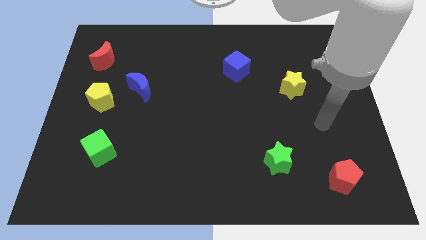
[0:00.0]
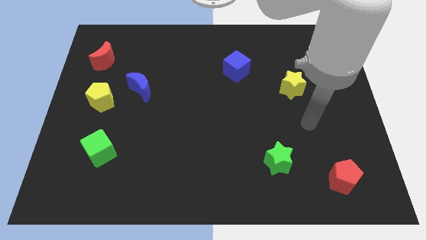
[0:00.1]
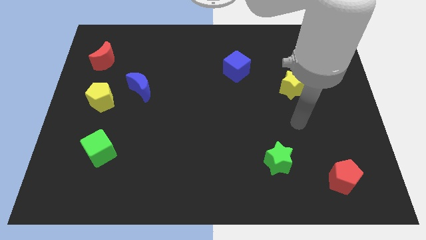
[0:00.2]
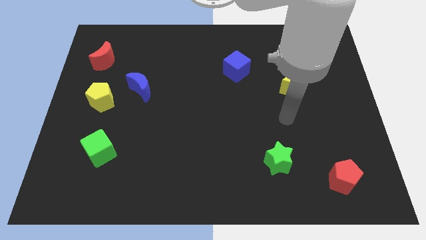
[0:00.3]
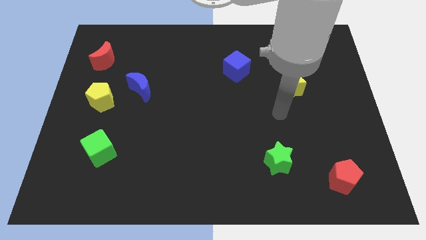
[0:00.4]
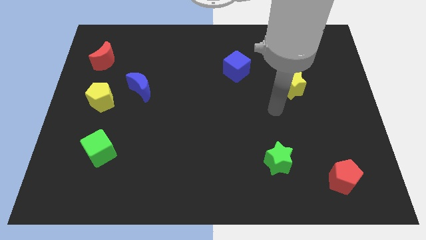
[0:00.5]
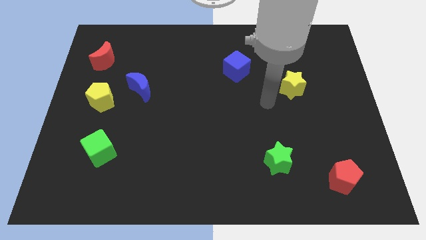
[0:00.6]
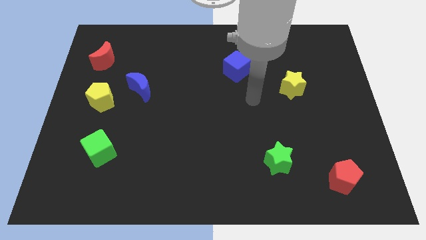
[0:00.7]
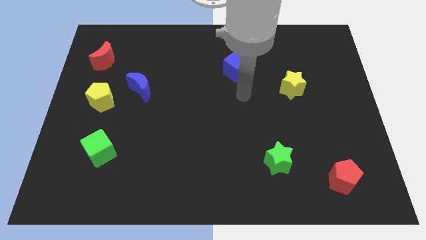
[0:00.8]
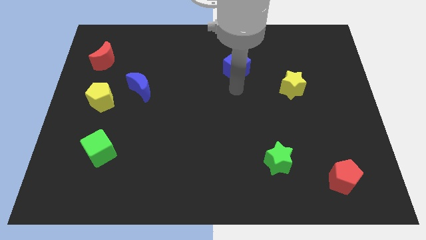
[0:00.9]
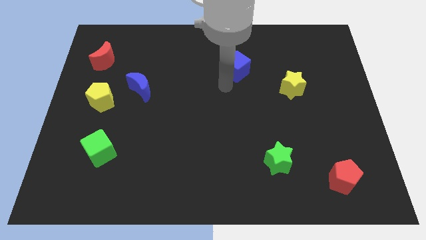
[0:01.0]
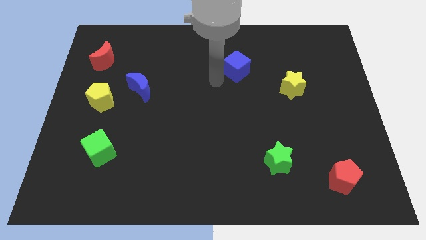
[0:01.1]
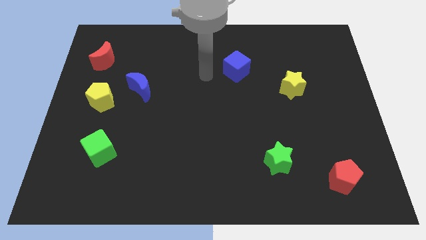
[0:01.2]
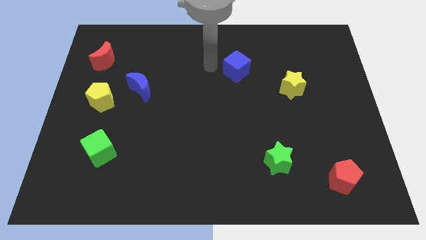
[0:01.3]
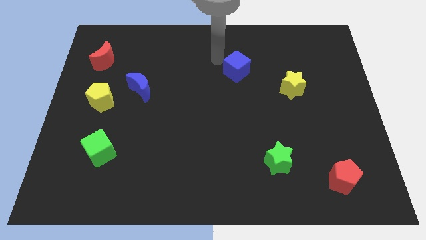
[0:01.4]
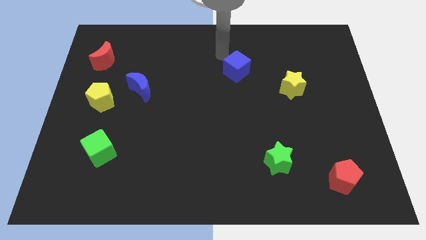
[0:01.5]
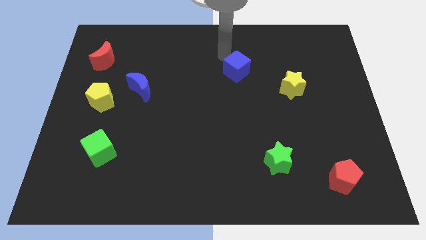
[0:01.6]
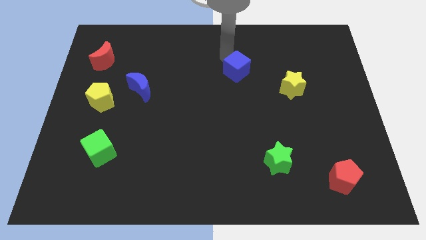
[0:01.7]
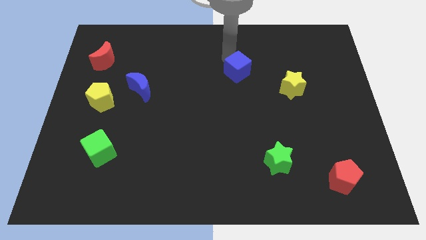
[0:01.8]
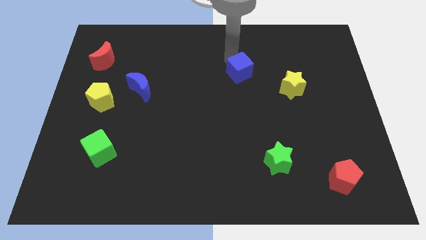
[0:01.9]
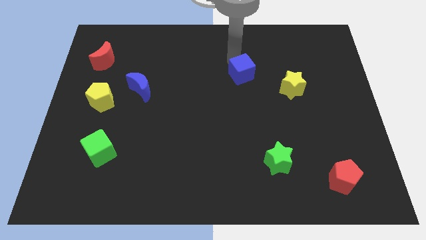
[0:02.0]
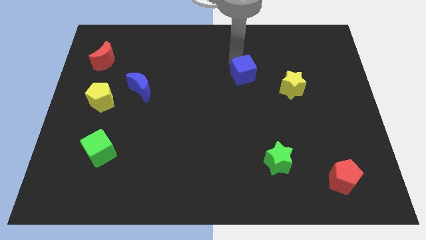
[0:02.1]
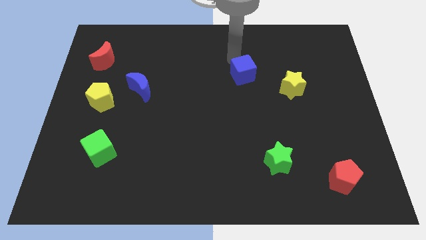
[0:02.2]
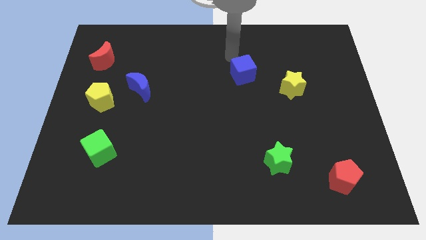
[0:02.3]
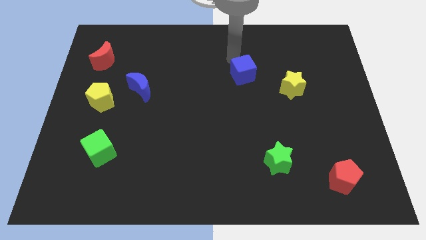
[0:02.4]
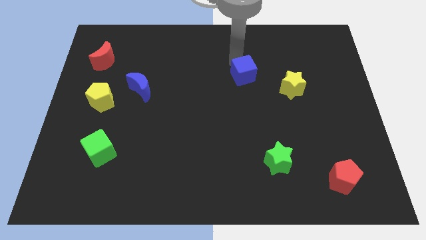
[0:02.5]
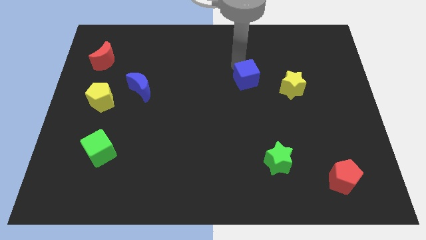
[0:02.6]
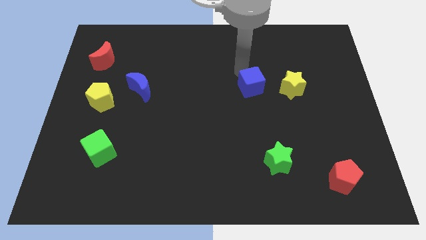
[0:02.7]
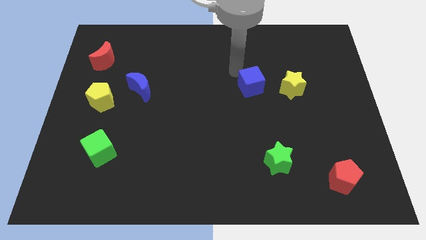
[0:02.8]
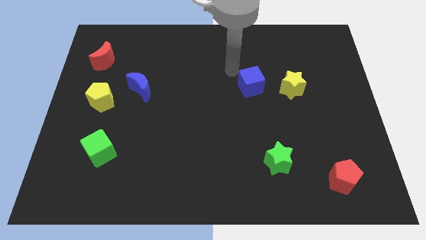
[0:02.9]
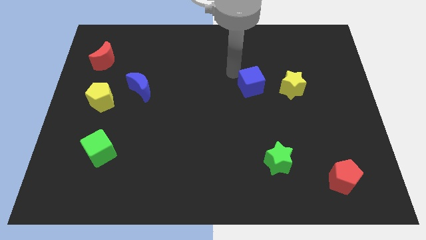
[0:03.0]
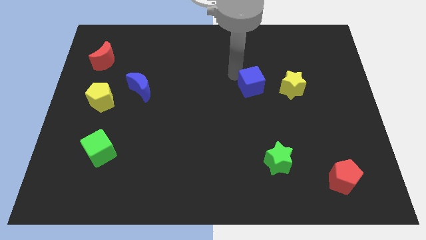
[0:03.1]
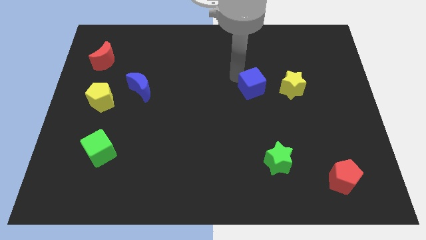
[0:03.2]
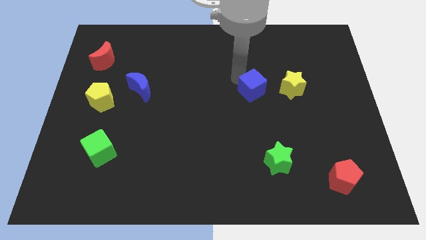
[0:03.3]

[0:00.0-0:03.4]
move the blue cube diagonally down and right slightly

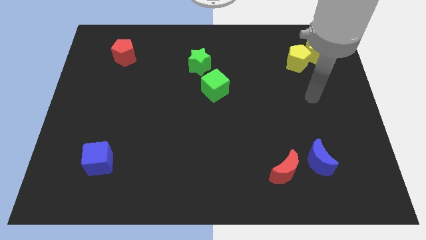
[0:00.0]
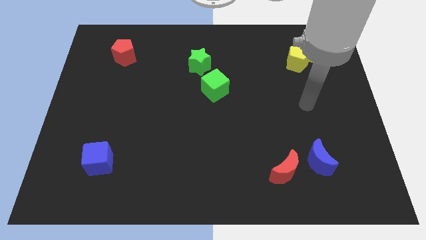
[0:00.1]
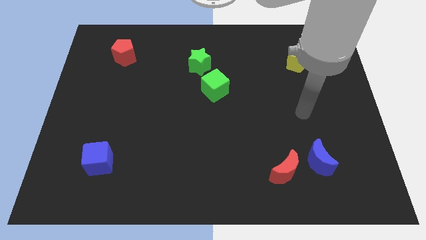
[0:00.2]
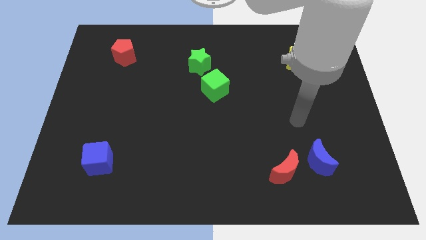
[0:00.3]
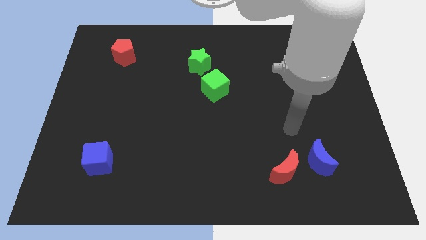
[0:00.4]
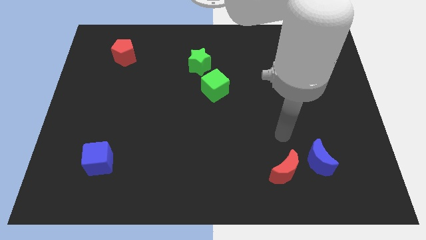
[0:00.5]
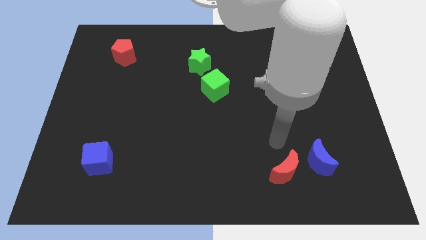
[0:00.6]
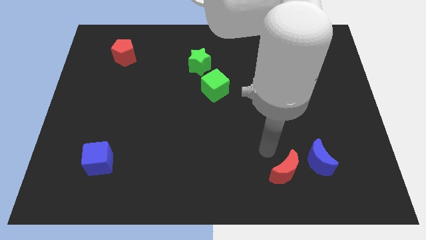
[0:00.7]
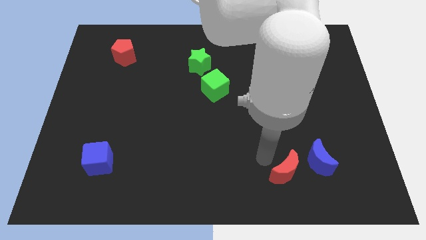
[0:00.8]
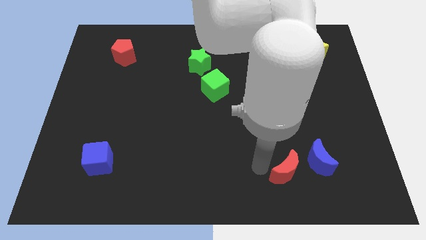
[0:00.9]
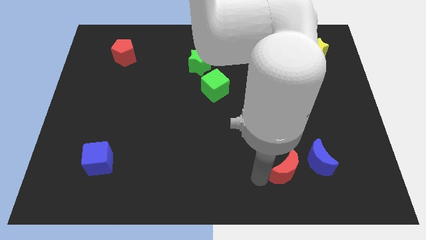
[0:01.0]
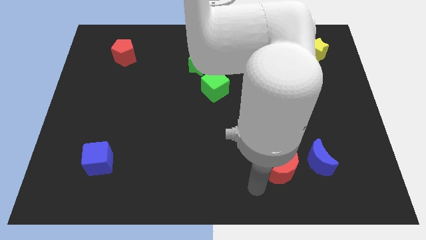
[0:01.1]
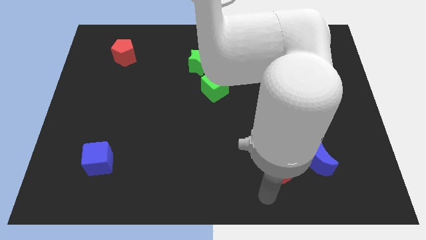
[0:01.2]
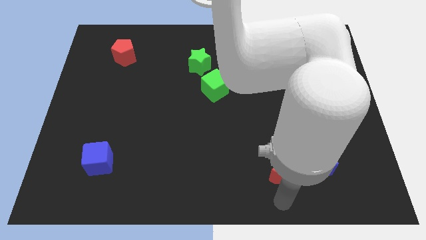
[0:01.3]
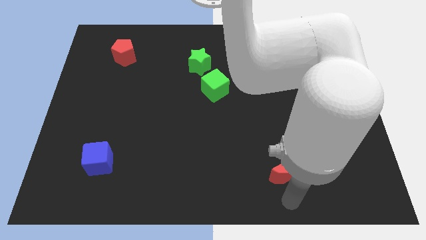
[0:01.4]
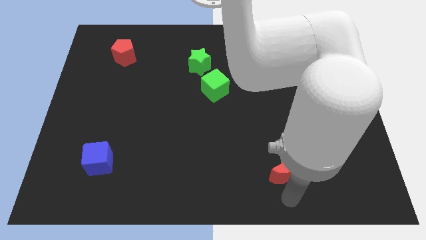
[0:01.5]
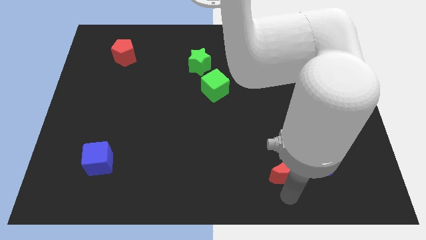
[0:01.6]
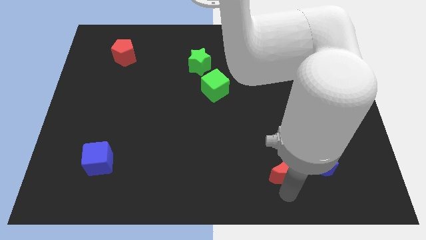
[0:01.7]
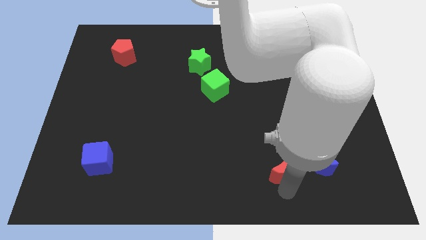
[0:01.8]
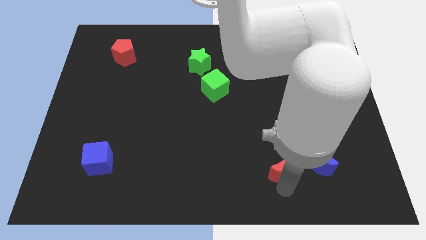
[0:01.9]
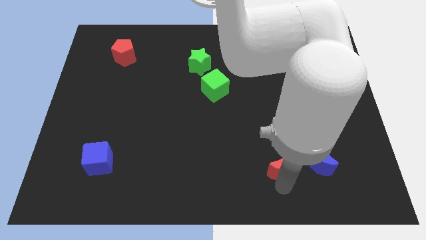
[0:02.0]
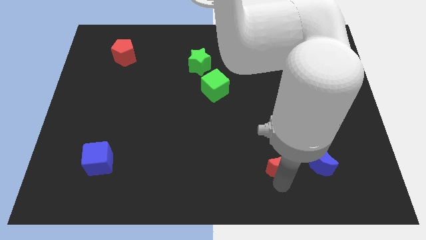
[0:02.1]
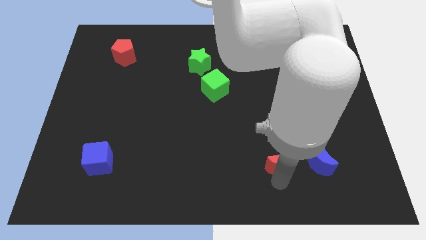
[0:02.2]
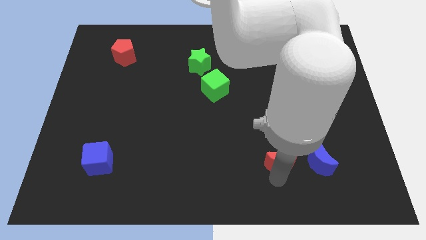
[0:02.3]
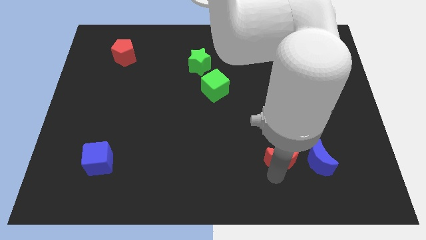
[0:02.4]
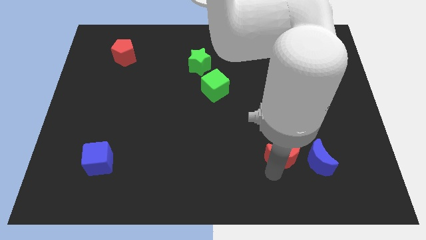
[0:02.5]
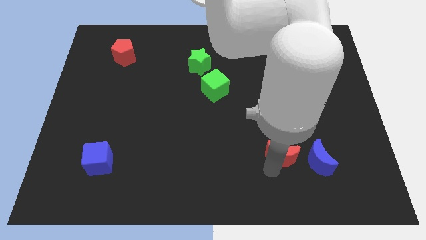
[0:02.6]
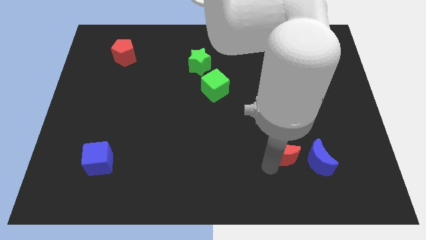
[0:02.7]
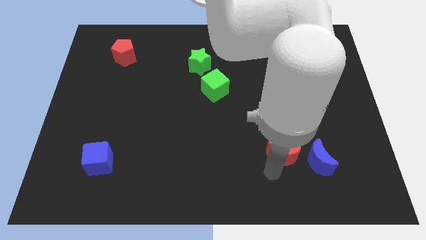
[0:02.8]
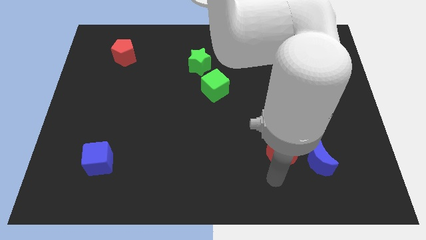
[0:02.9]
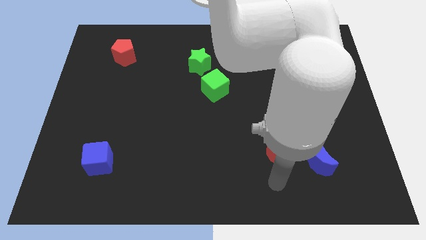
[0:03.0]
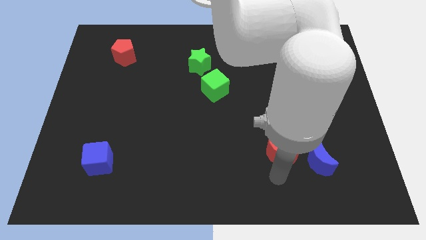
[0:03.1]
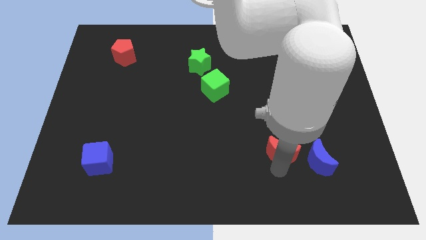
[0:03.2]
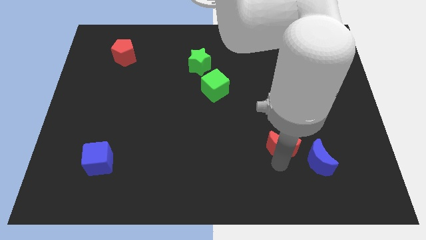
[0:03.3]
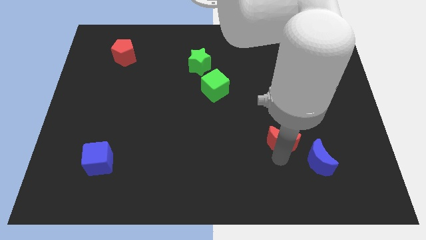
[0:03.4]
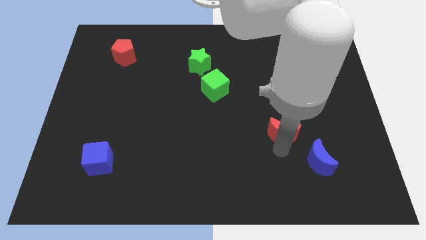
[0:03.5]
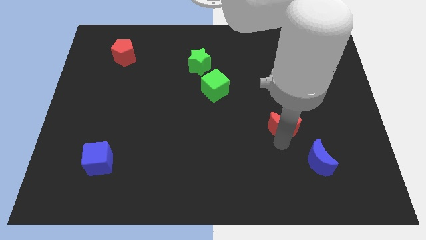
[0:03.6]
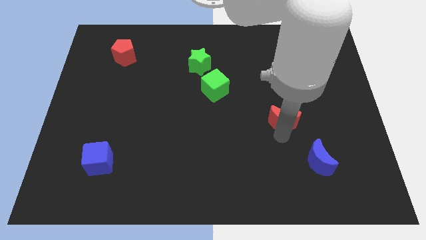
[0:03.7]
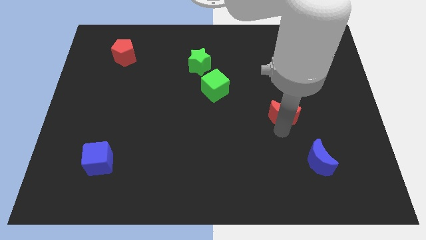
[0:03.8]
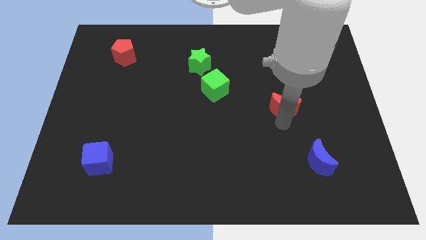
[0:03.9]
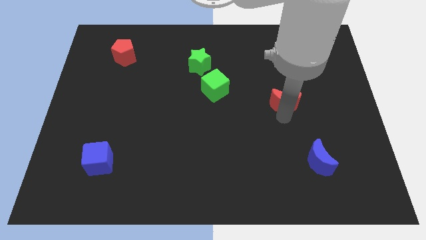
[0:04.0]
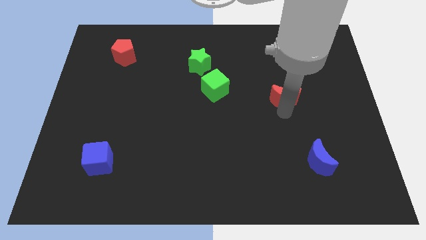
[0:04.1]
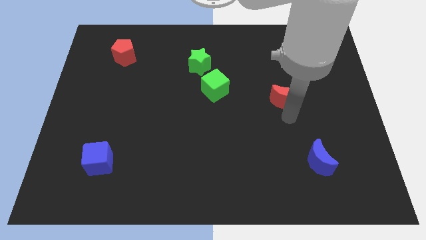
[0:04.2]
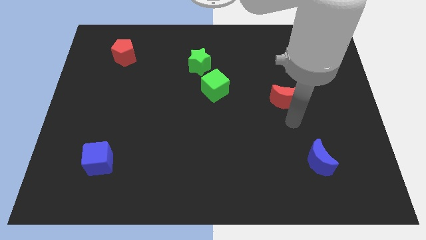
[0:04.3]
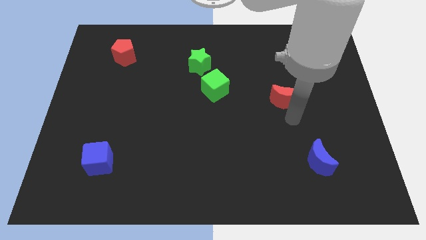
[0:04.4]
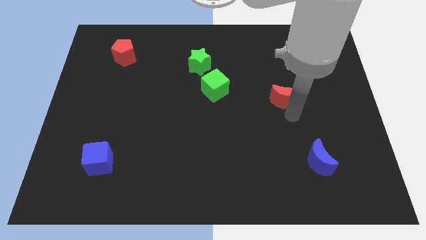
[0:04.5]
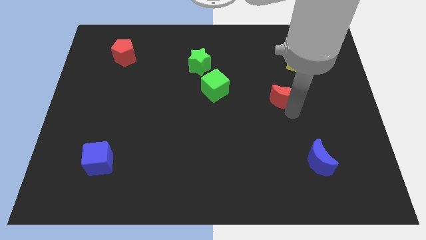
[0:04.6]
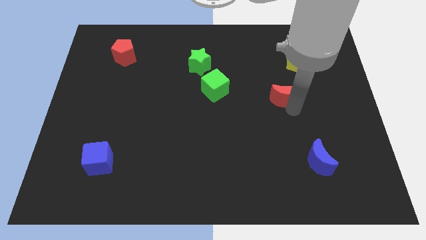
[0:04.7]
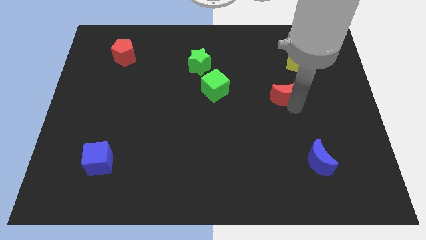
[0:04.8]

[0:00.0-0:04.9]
slide the red moon up

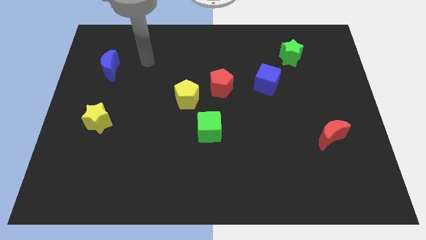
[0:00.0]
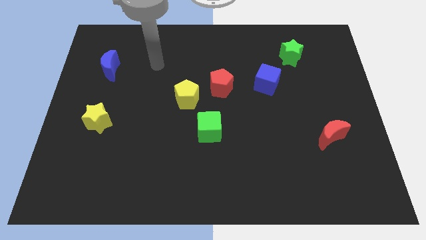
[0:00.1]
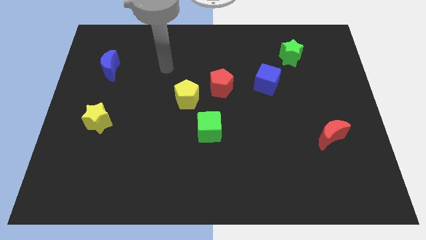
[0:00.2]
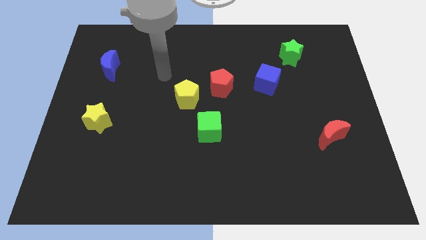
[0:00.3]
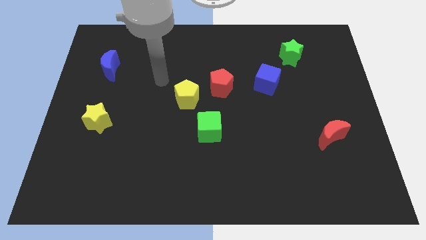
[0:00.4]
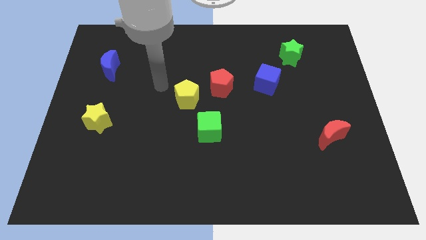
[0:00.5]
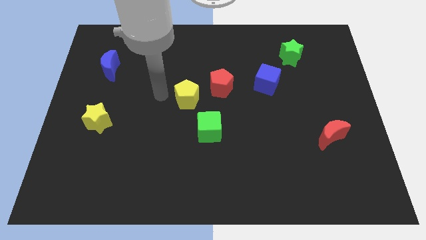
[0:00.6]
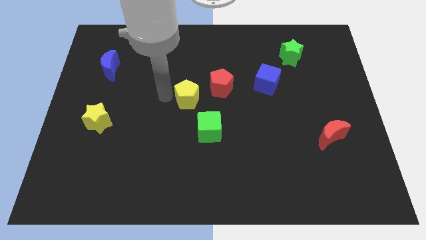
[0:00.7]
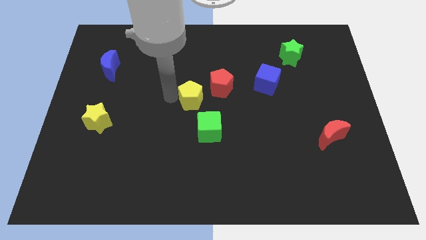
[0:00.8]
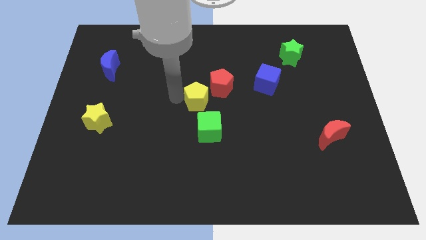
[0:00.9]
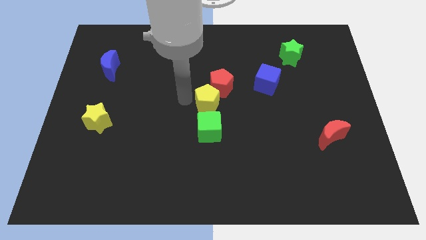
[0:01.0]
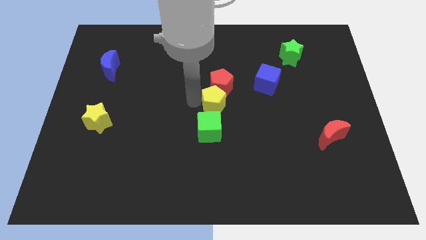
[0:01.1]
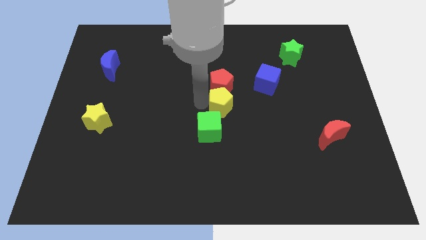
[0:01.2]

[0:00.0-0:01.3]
push the yellow pentagon somewhat to the right
